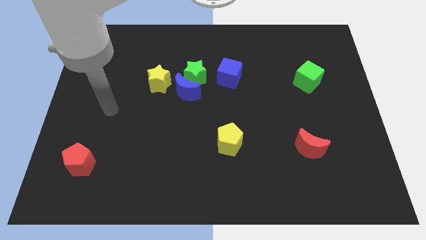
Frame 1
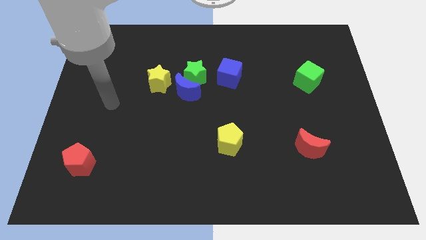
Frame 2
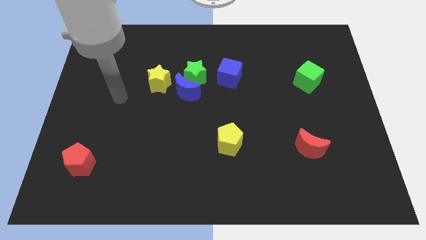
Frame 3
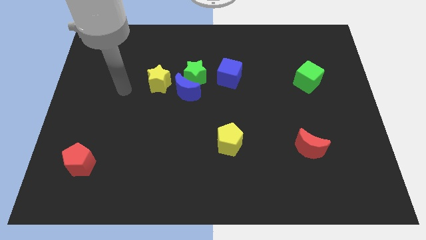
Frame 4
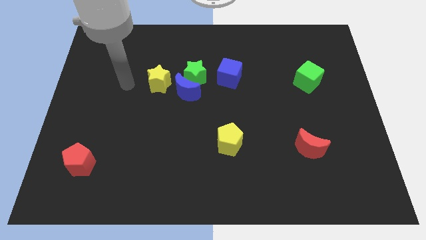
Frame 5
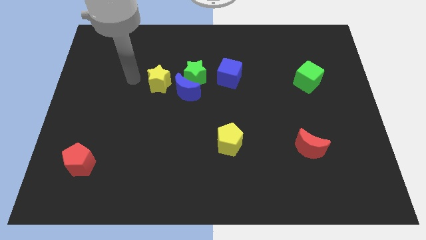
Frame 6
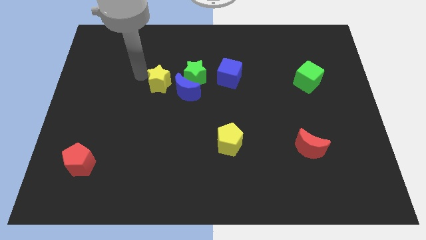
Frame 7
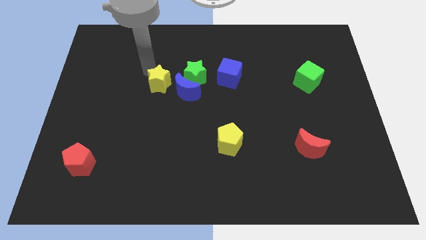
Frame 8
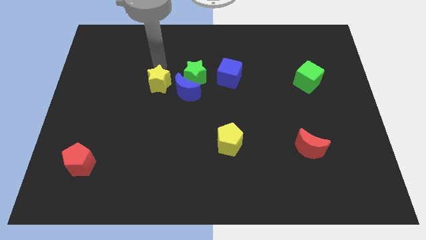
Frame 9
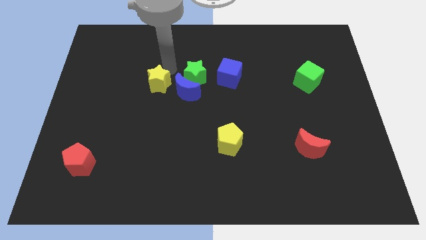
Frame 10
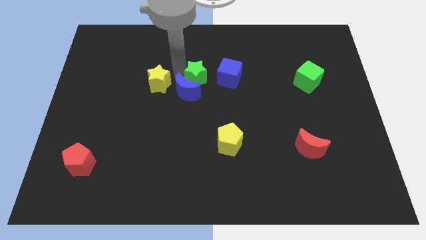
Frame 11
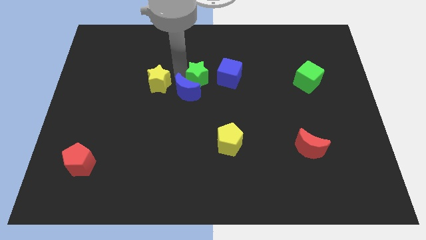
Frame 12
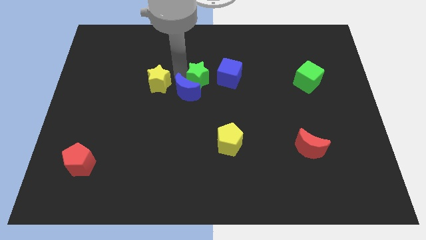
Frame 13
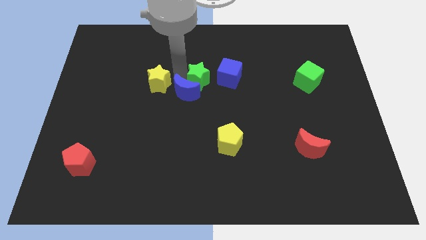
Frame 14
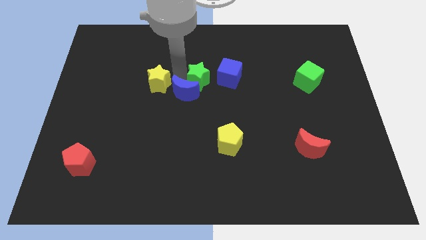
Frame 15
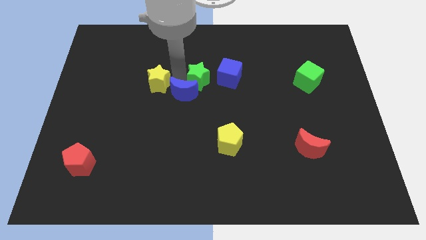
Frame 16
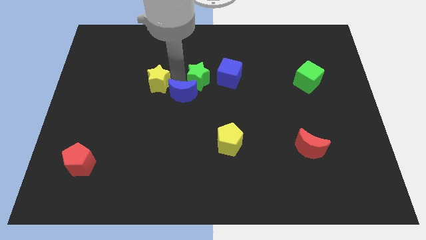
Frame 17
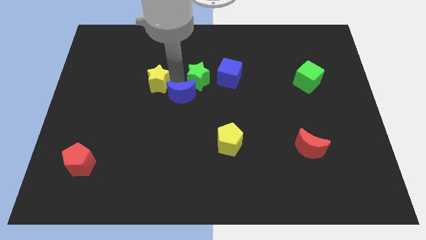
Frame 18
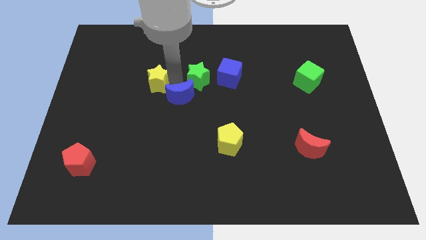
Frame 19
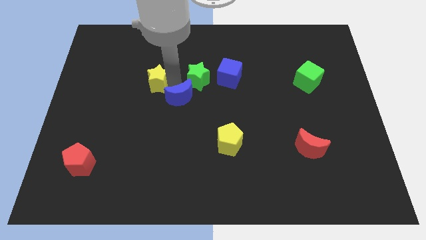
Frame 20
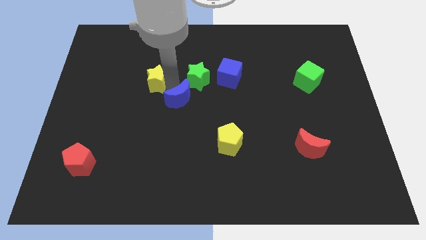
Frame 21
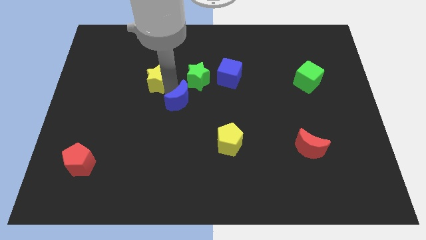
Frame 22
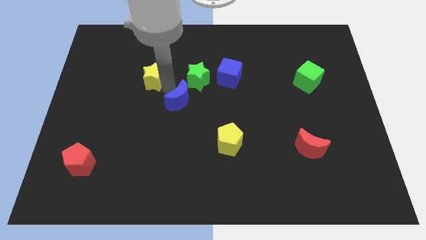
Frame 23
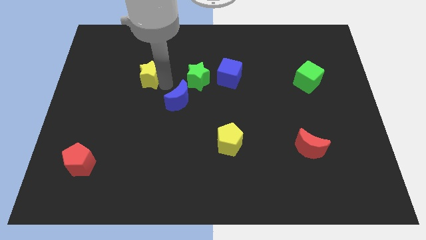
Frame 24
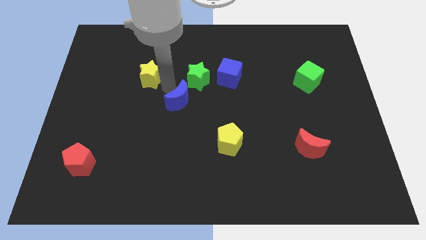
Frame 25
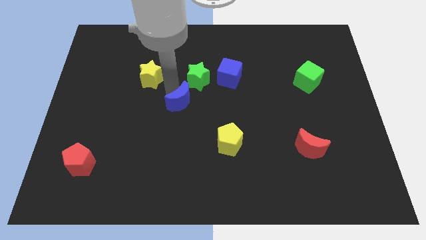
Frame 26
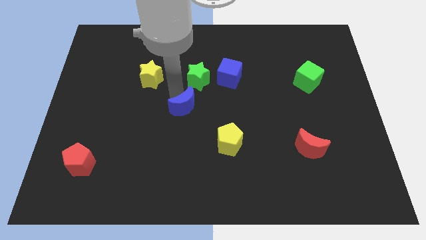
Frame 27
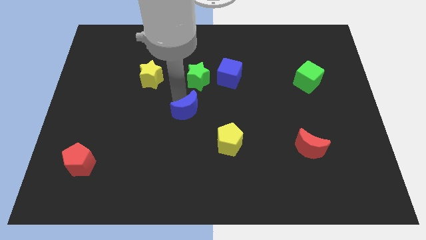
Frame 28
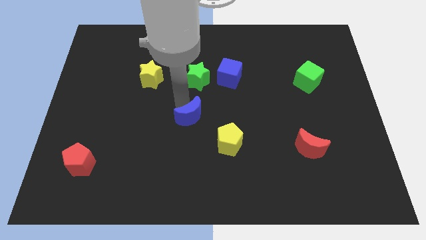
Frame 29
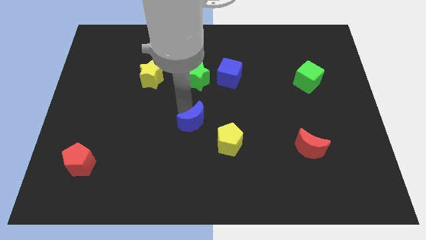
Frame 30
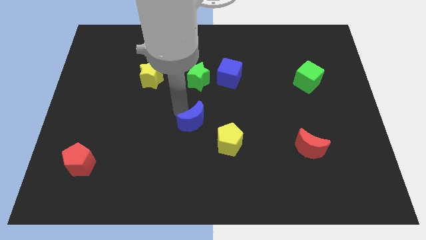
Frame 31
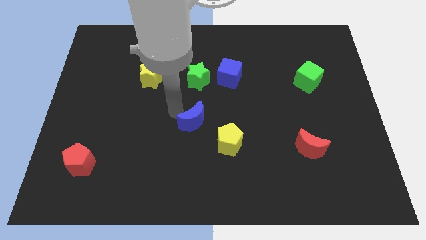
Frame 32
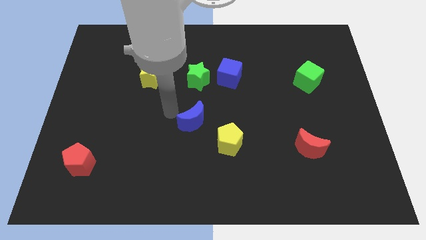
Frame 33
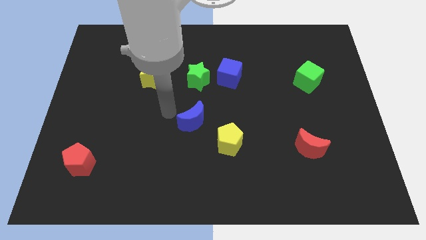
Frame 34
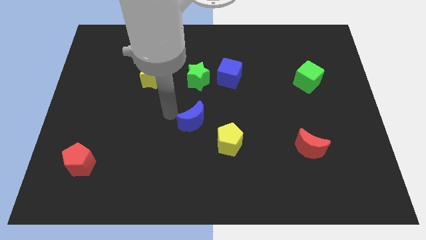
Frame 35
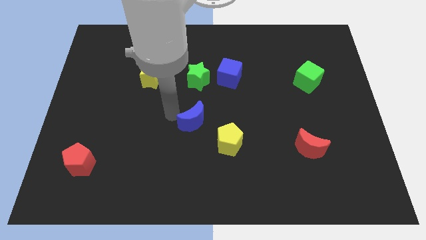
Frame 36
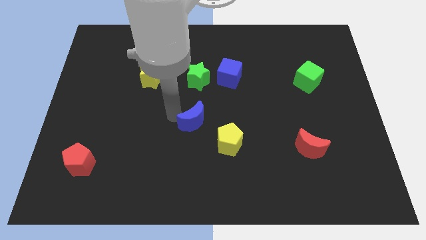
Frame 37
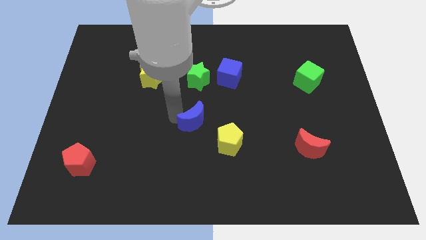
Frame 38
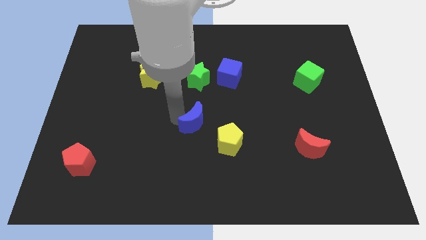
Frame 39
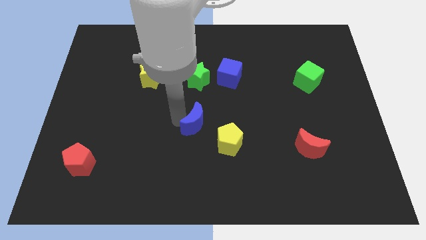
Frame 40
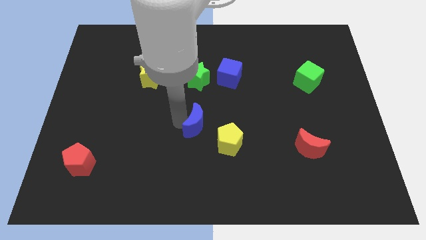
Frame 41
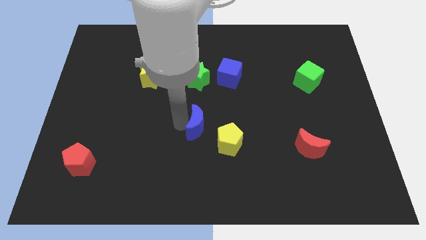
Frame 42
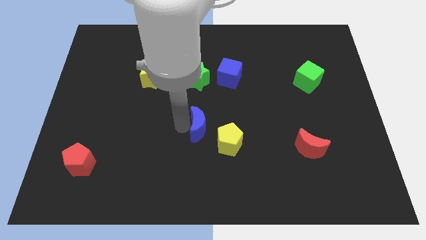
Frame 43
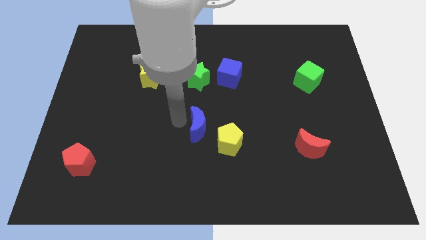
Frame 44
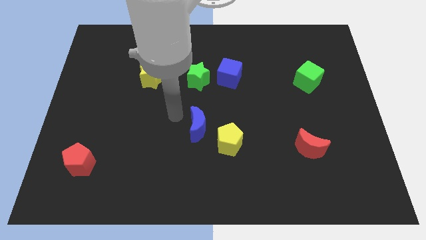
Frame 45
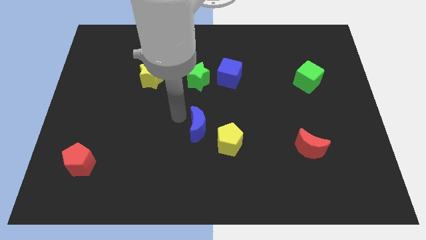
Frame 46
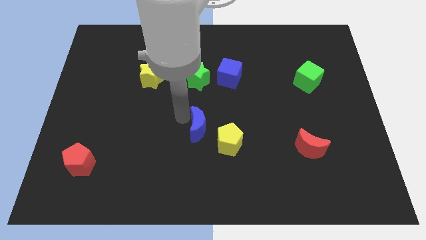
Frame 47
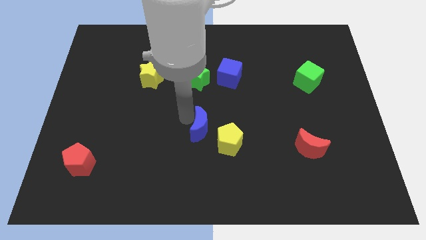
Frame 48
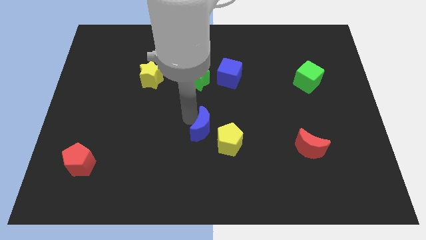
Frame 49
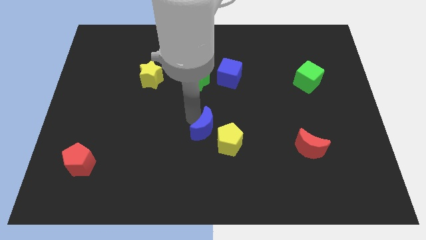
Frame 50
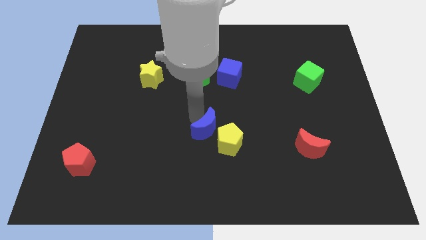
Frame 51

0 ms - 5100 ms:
put the blue moon towards the yellow pentagon

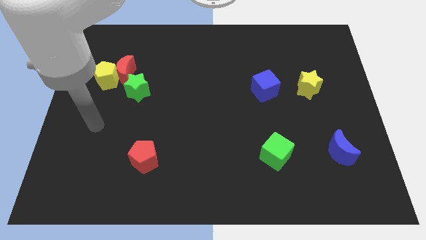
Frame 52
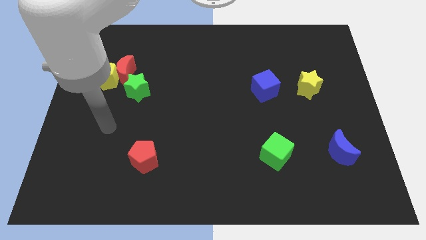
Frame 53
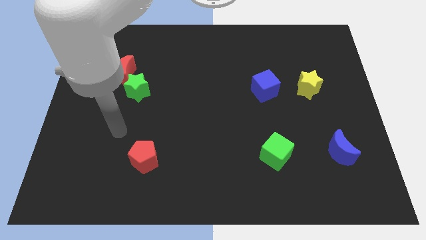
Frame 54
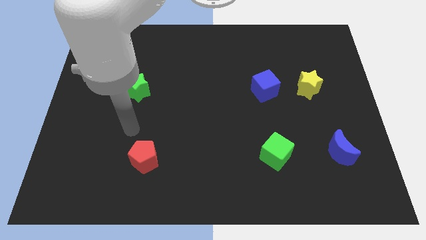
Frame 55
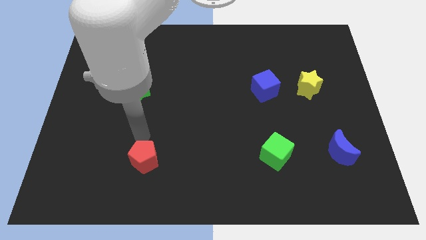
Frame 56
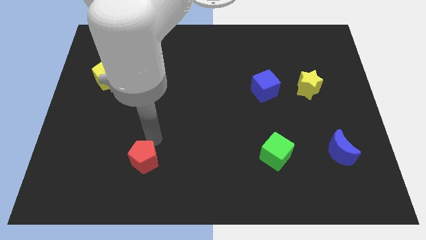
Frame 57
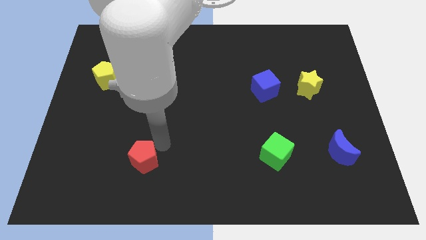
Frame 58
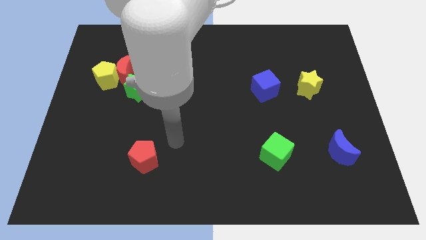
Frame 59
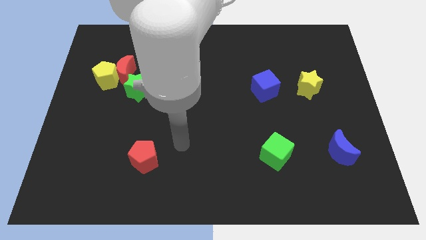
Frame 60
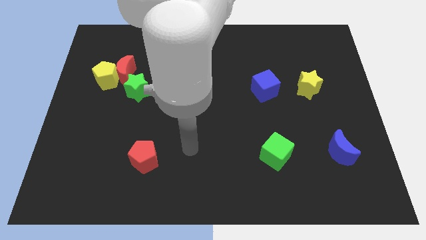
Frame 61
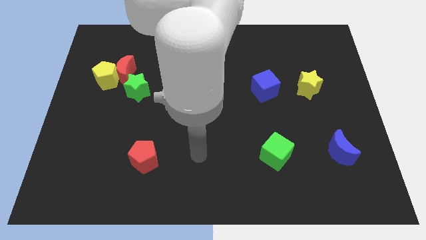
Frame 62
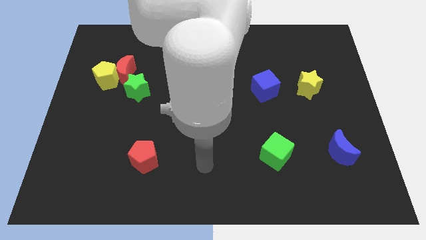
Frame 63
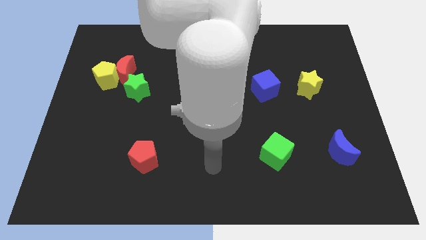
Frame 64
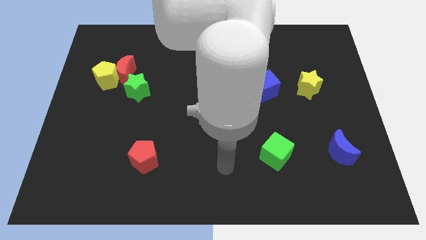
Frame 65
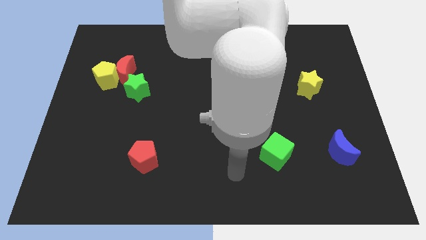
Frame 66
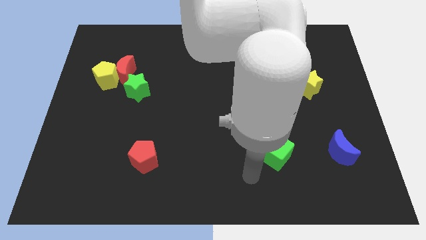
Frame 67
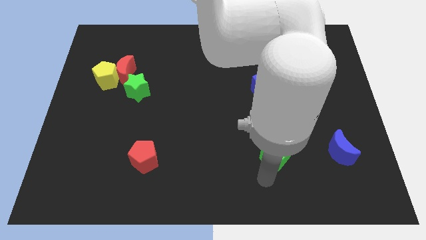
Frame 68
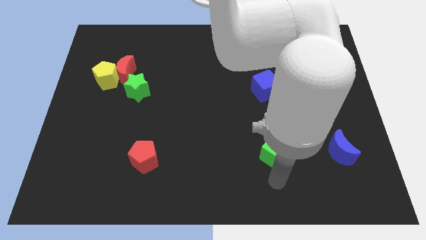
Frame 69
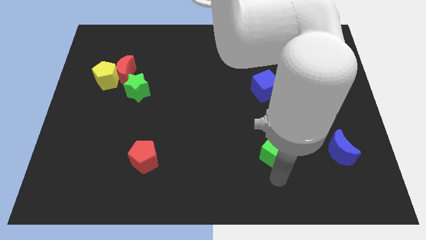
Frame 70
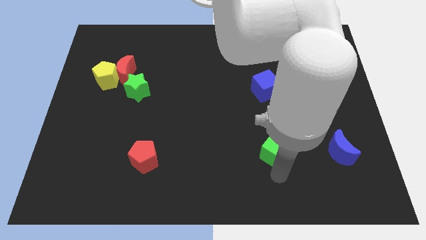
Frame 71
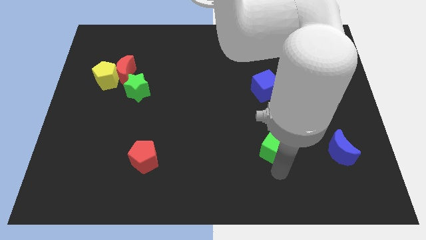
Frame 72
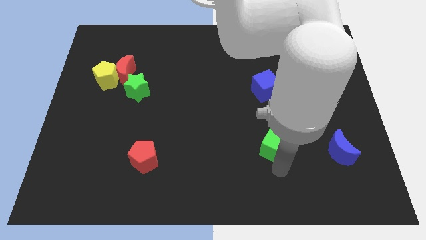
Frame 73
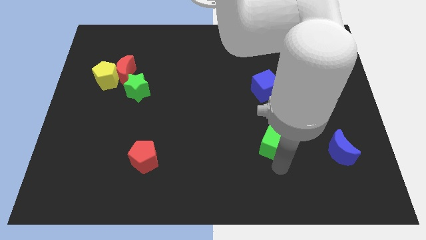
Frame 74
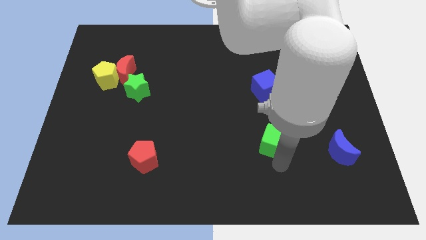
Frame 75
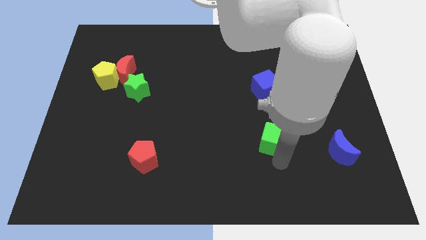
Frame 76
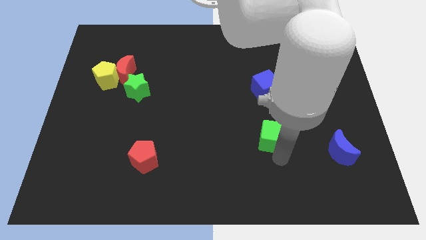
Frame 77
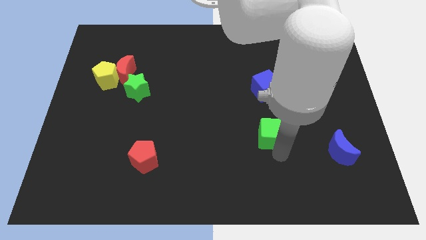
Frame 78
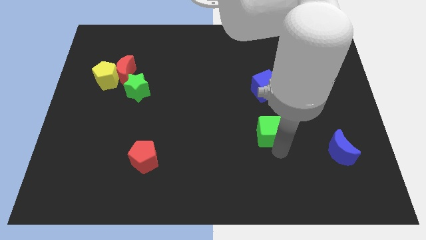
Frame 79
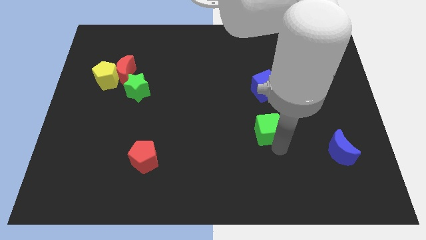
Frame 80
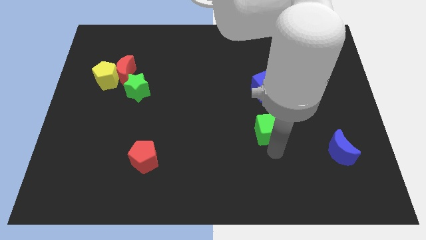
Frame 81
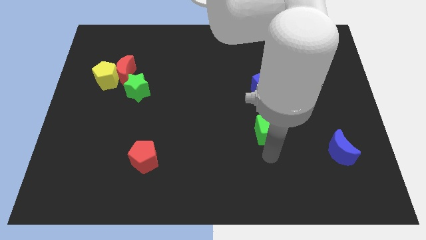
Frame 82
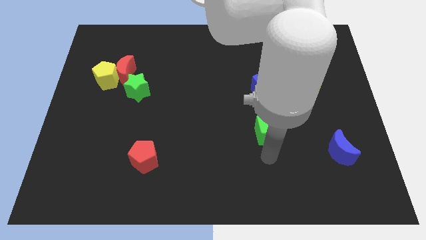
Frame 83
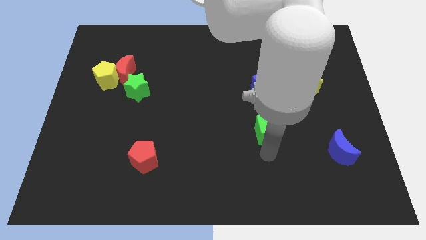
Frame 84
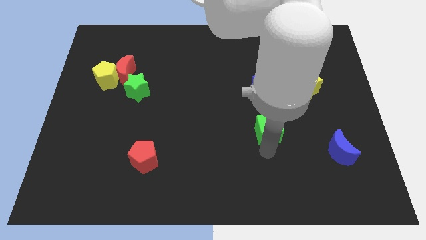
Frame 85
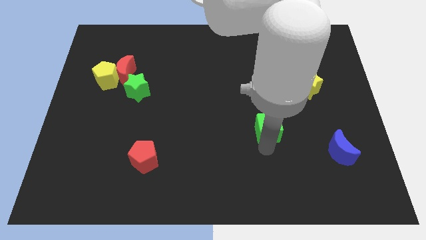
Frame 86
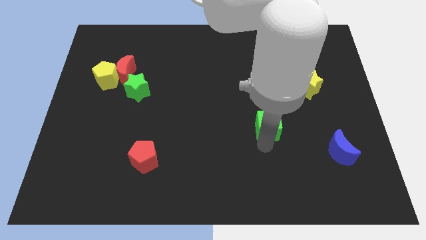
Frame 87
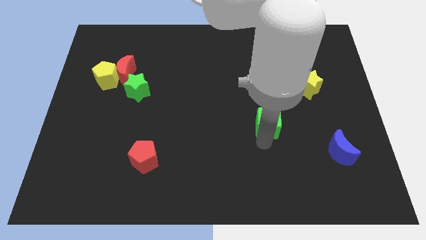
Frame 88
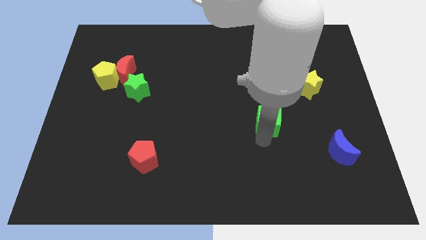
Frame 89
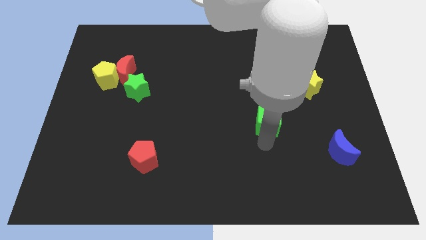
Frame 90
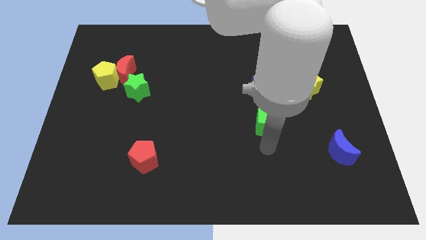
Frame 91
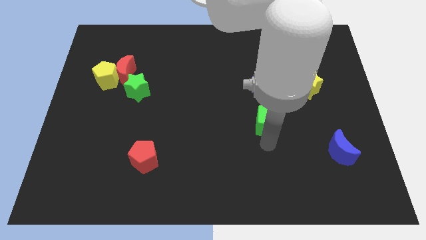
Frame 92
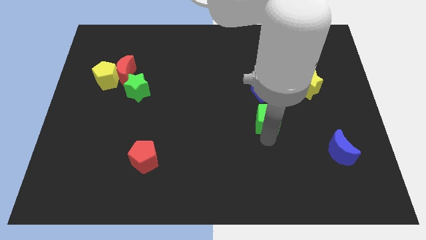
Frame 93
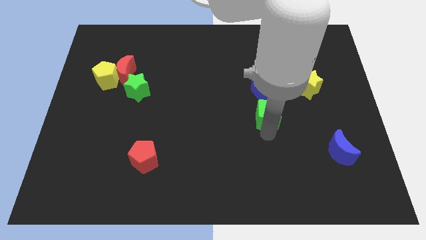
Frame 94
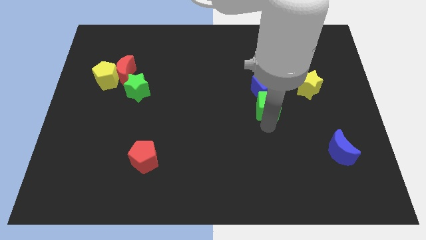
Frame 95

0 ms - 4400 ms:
push the green cube close to the blue cube
